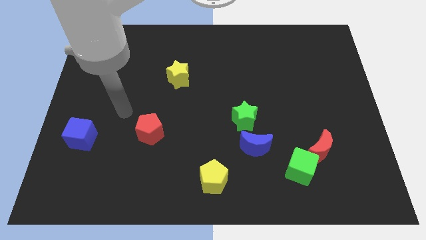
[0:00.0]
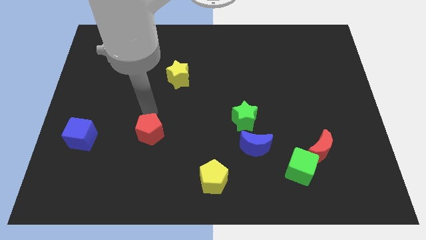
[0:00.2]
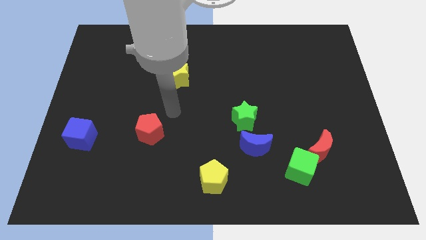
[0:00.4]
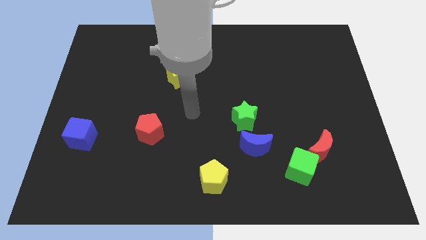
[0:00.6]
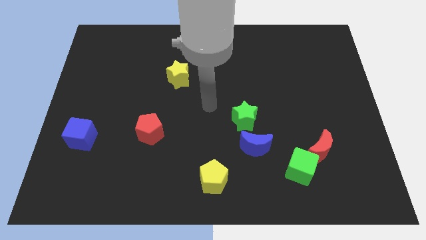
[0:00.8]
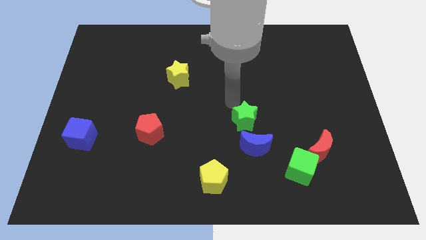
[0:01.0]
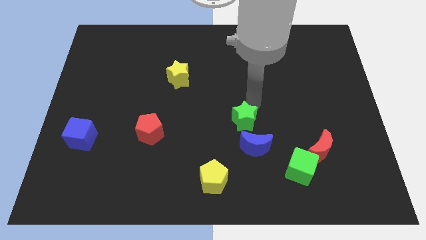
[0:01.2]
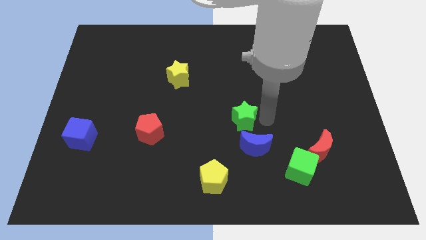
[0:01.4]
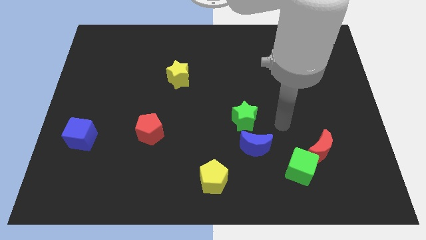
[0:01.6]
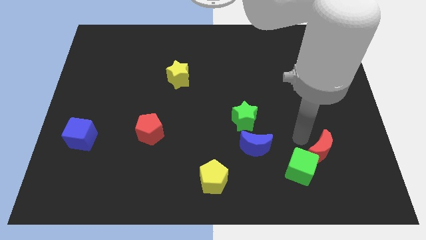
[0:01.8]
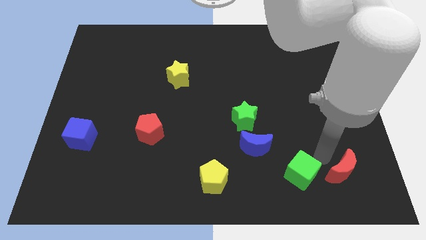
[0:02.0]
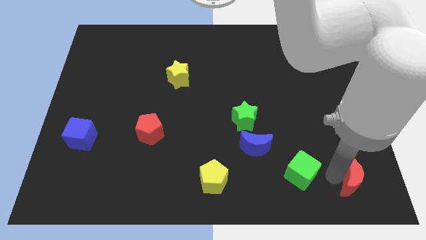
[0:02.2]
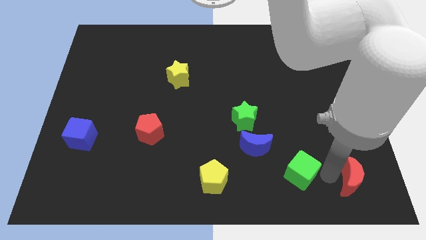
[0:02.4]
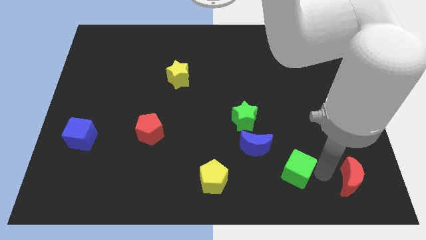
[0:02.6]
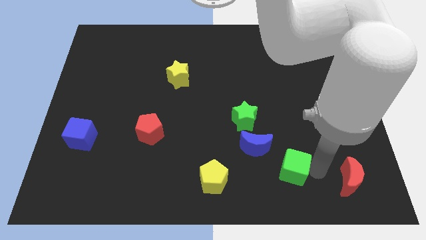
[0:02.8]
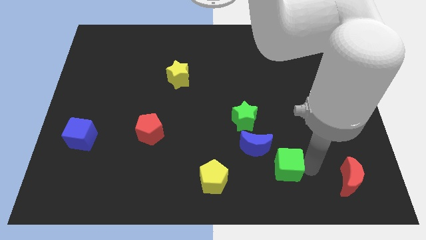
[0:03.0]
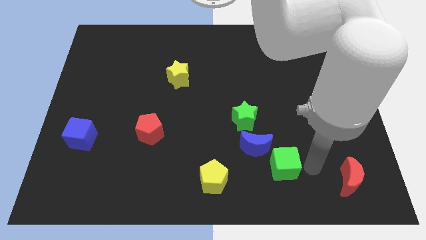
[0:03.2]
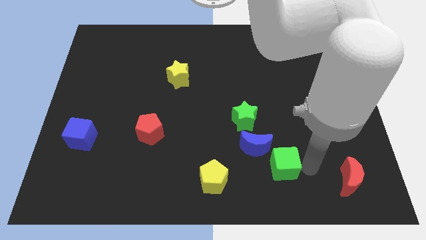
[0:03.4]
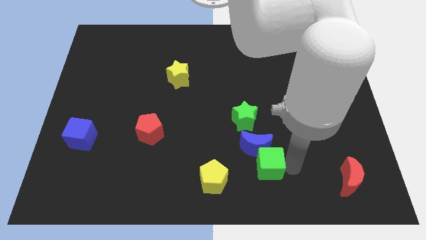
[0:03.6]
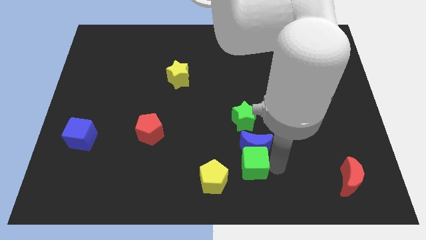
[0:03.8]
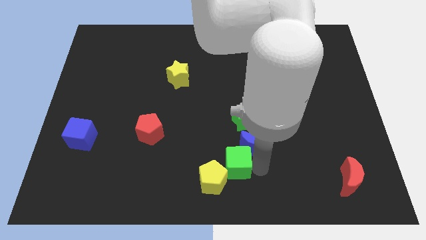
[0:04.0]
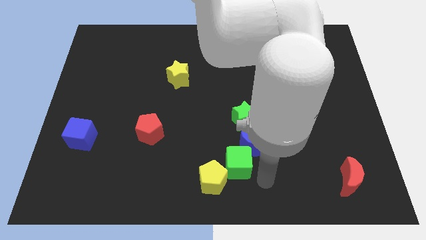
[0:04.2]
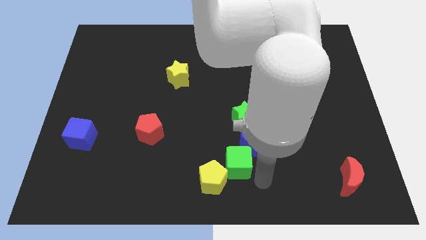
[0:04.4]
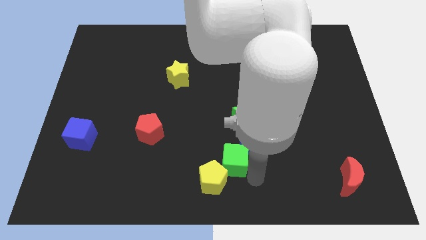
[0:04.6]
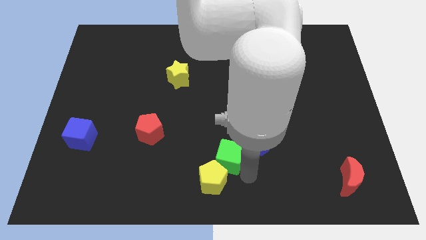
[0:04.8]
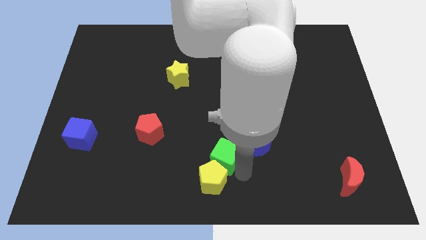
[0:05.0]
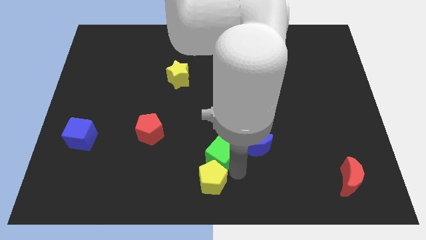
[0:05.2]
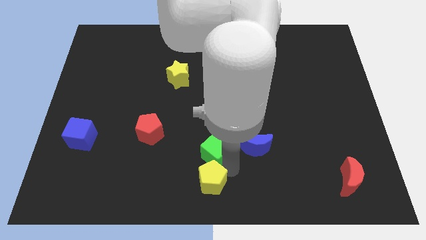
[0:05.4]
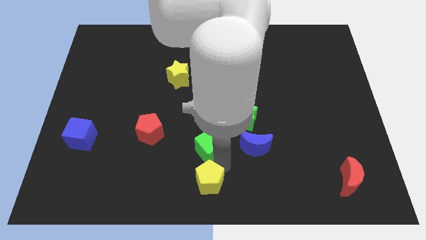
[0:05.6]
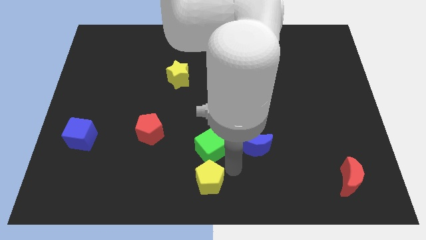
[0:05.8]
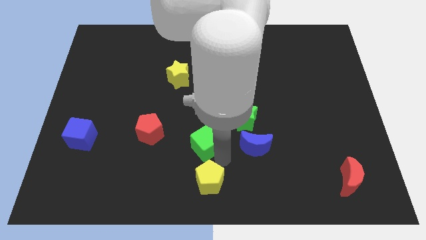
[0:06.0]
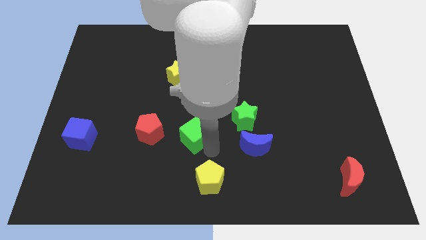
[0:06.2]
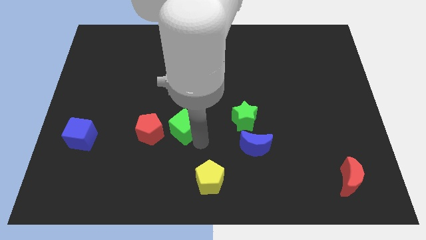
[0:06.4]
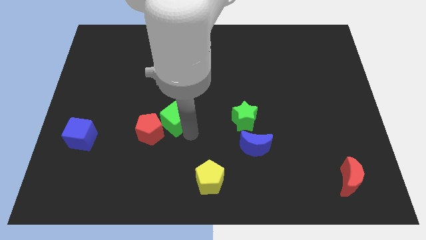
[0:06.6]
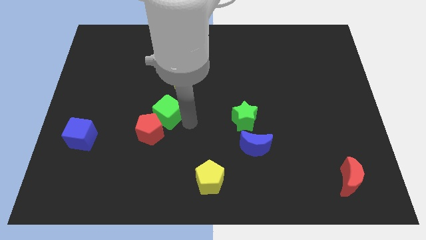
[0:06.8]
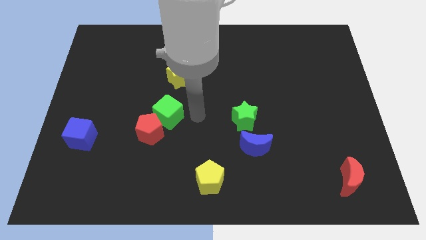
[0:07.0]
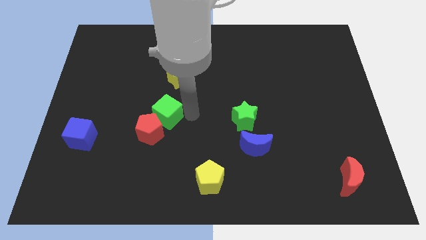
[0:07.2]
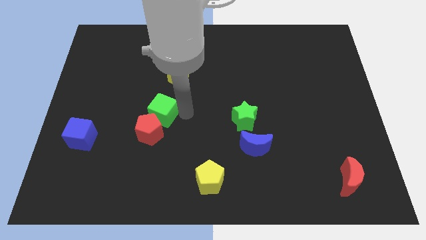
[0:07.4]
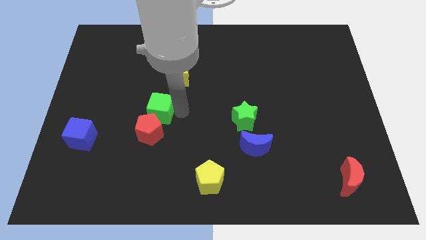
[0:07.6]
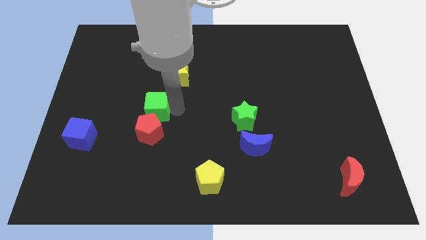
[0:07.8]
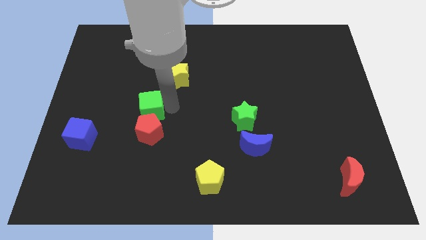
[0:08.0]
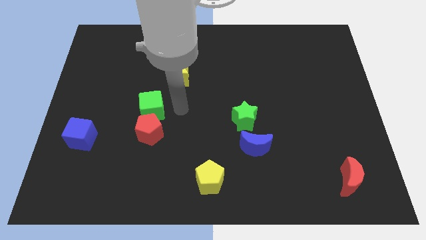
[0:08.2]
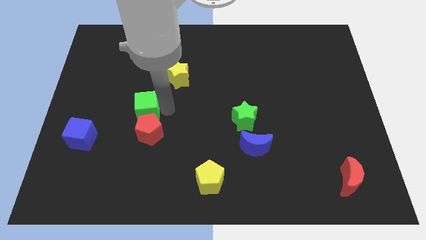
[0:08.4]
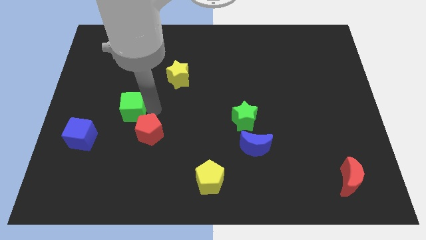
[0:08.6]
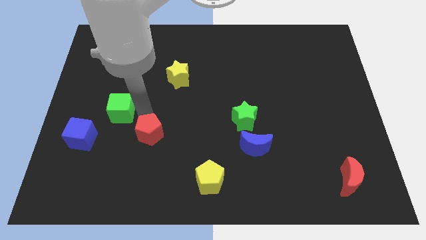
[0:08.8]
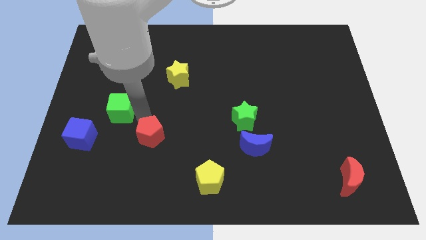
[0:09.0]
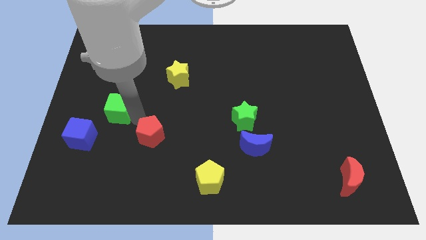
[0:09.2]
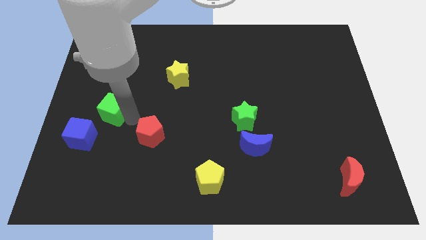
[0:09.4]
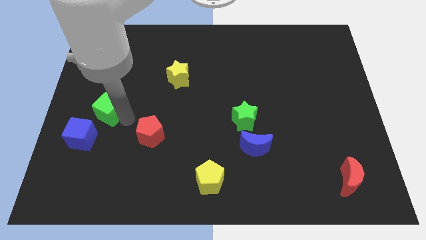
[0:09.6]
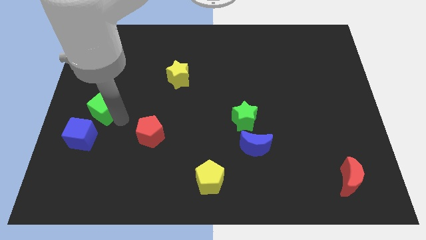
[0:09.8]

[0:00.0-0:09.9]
push the green cube to the center left

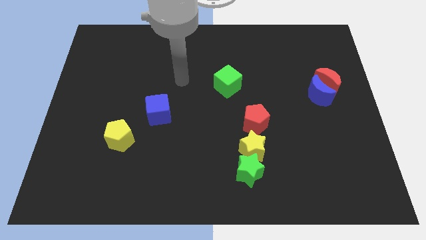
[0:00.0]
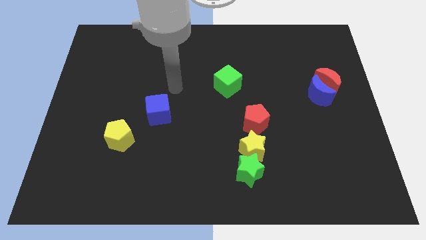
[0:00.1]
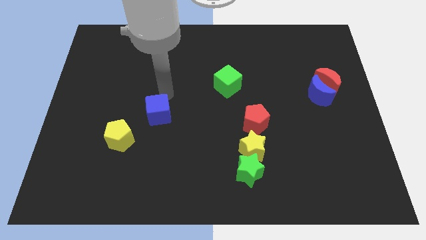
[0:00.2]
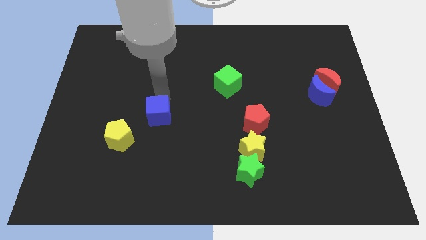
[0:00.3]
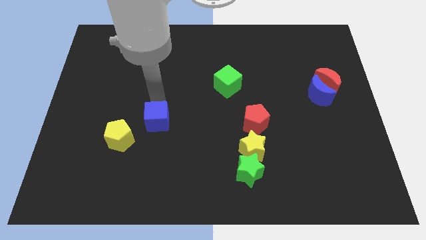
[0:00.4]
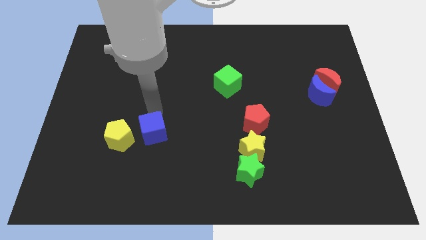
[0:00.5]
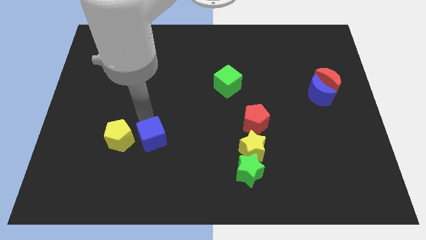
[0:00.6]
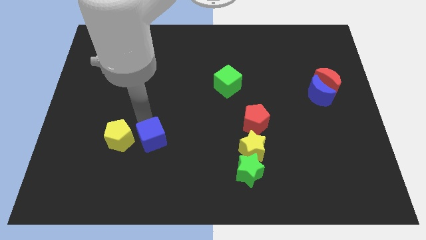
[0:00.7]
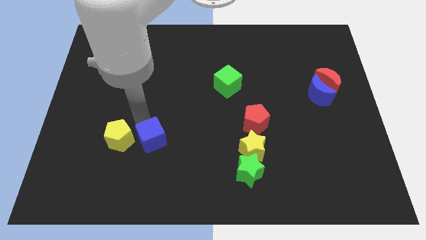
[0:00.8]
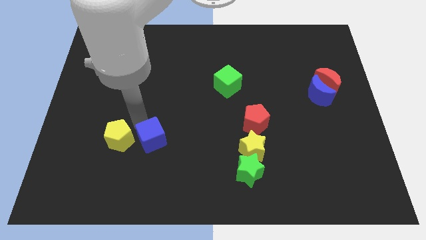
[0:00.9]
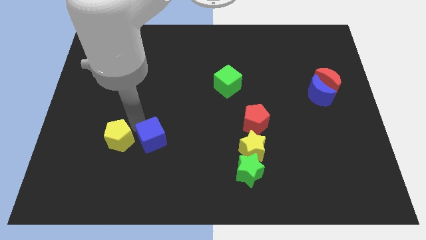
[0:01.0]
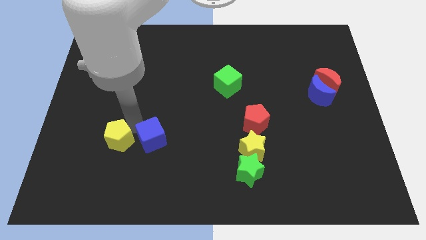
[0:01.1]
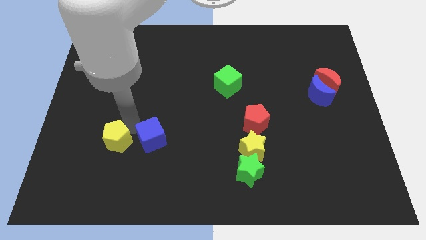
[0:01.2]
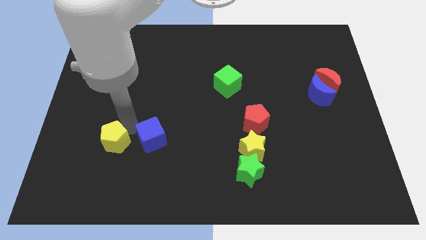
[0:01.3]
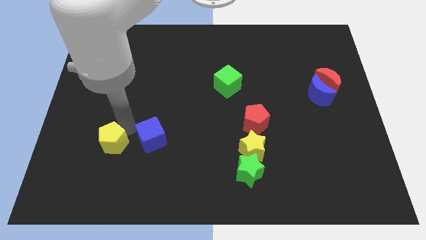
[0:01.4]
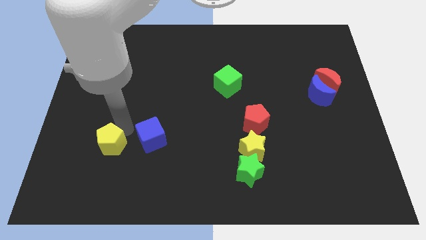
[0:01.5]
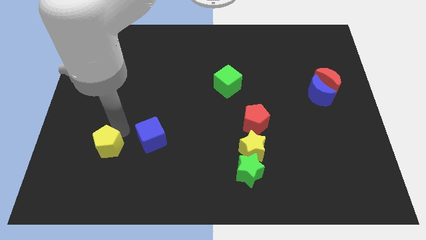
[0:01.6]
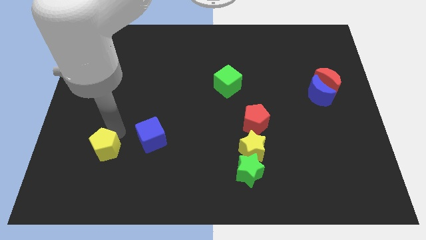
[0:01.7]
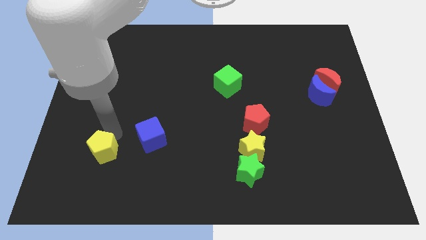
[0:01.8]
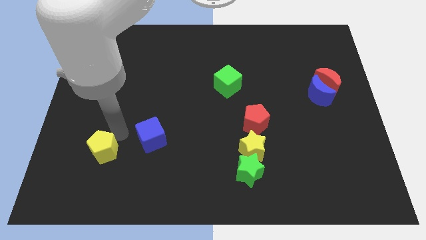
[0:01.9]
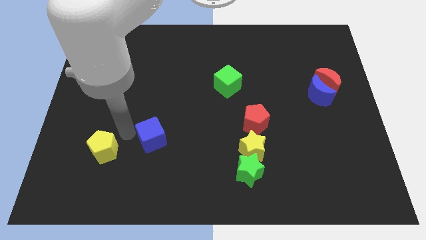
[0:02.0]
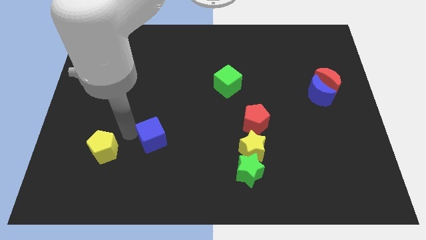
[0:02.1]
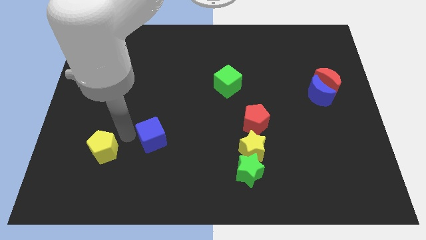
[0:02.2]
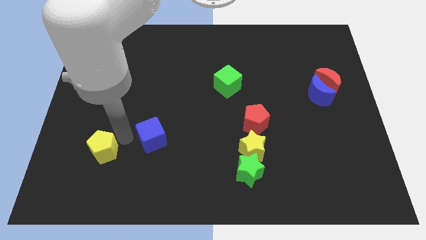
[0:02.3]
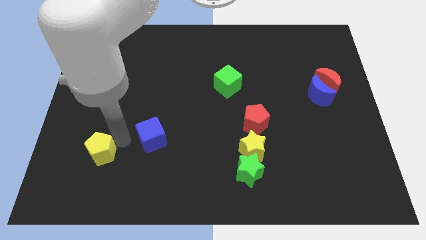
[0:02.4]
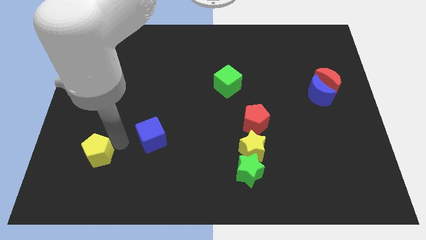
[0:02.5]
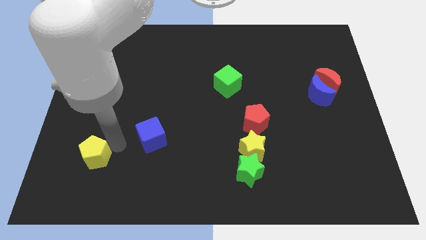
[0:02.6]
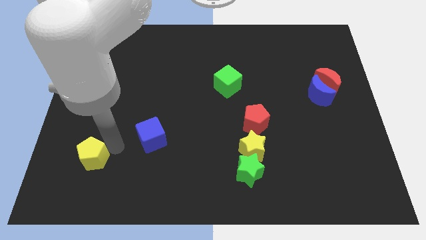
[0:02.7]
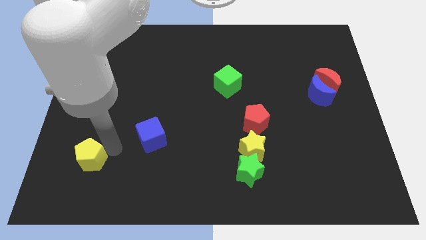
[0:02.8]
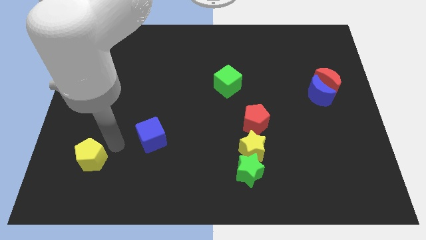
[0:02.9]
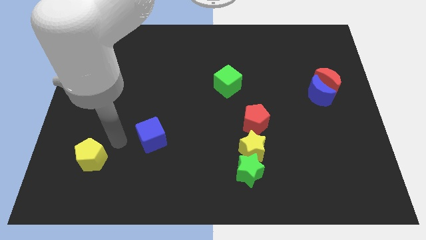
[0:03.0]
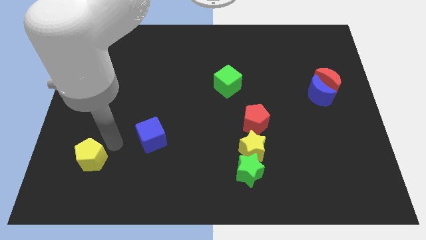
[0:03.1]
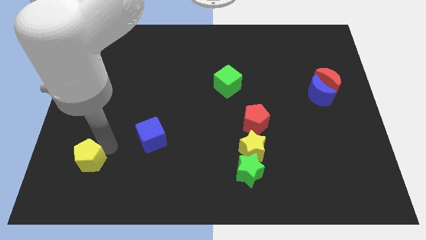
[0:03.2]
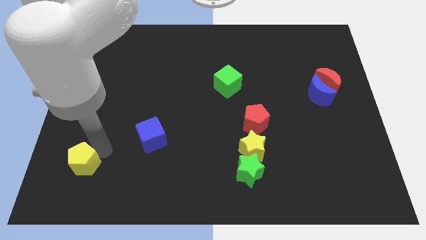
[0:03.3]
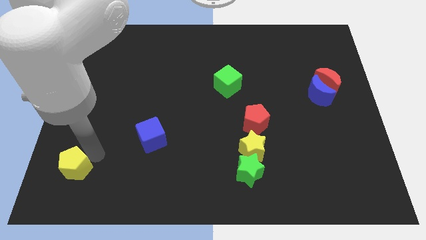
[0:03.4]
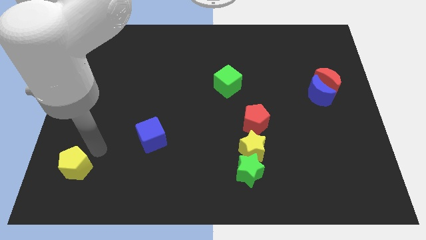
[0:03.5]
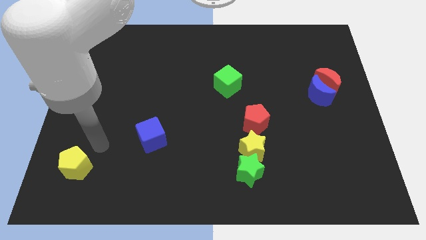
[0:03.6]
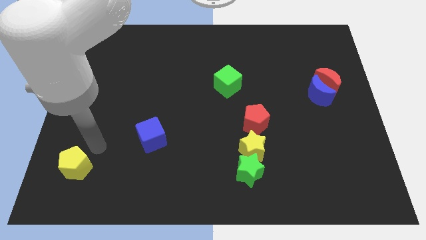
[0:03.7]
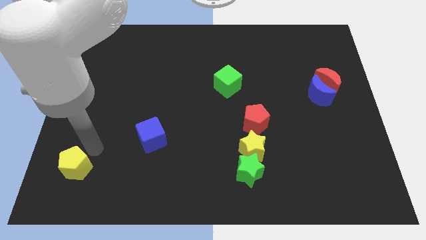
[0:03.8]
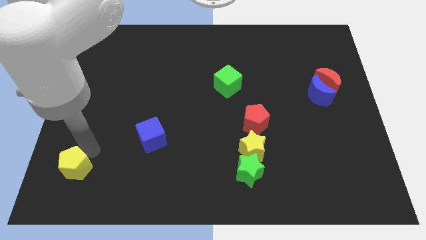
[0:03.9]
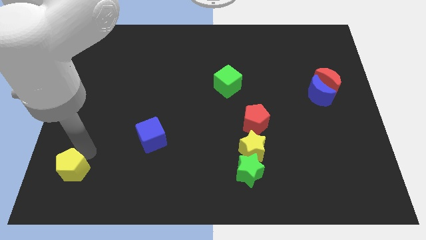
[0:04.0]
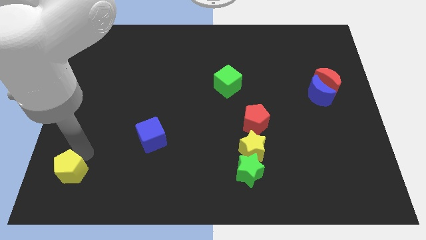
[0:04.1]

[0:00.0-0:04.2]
put the yellow pentagon to the bottom left of the board
